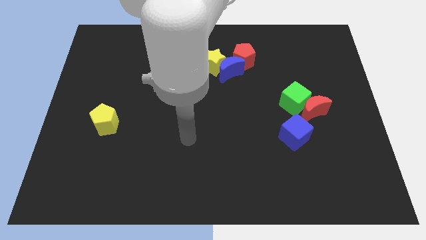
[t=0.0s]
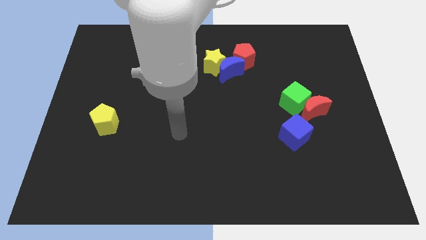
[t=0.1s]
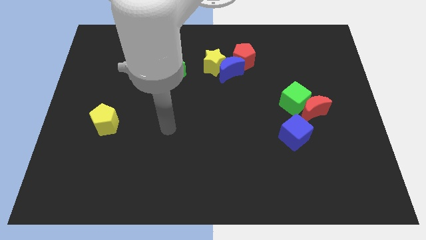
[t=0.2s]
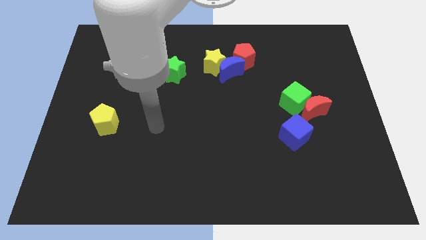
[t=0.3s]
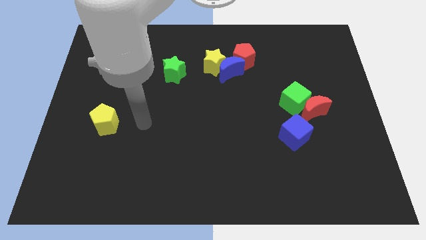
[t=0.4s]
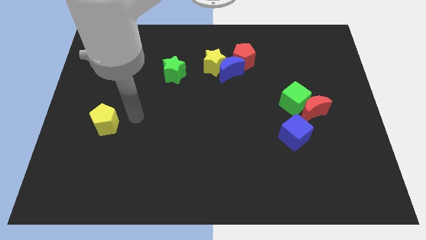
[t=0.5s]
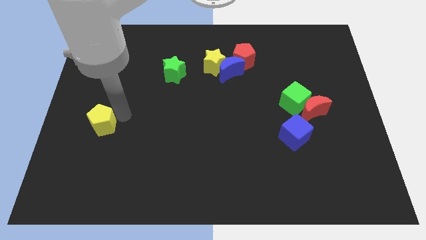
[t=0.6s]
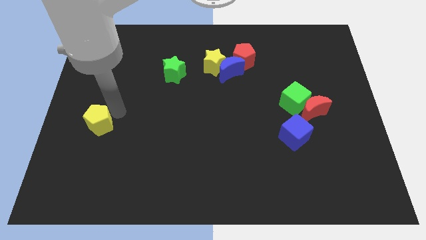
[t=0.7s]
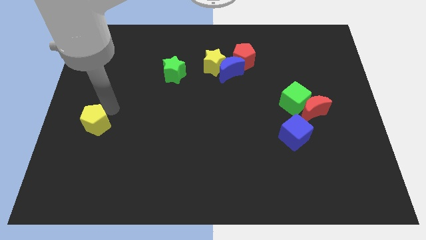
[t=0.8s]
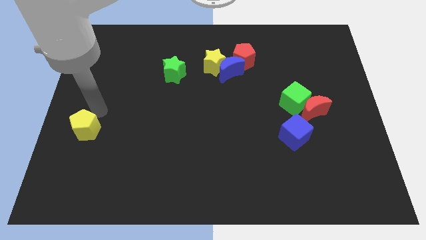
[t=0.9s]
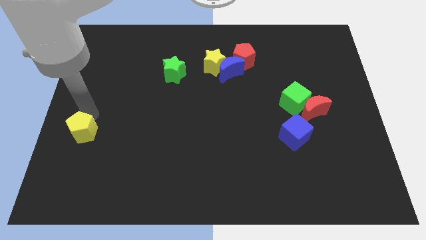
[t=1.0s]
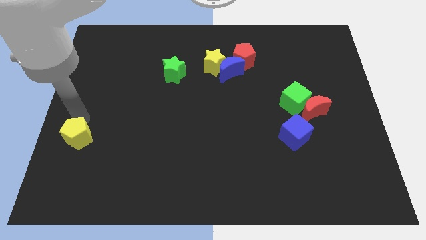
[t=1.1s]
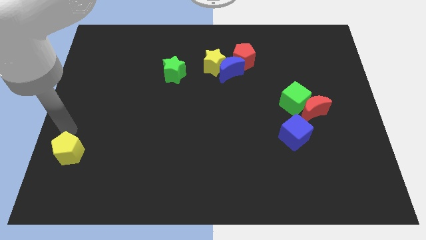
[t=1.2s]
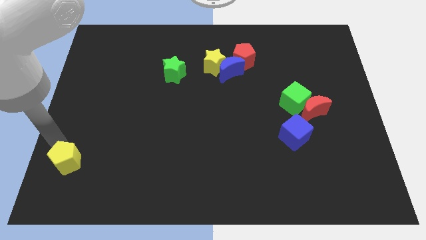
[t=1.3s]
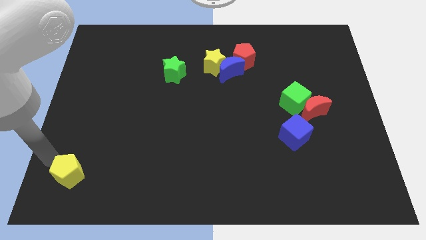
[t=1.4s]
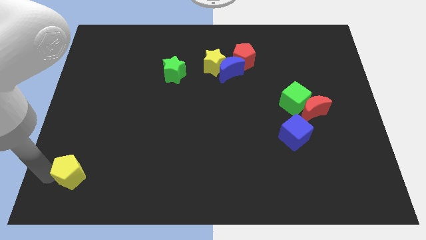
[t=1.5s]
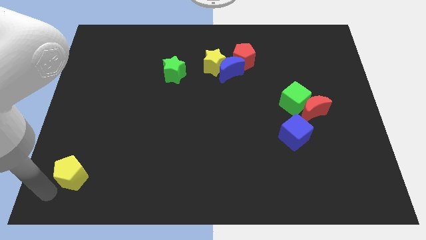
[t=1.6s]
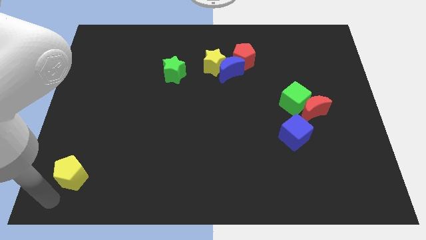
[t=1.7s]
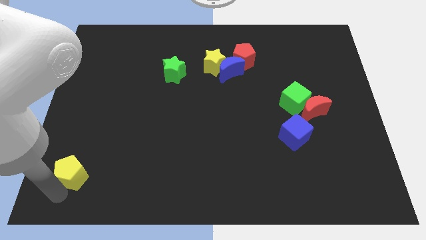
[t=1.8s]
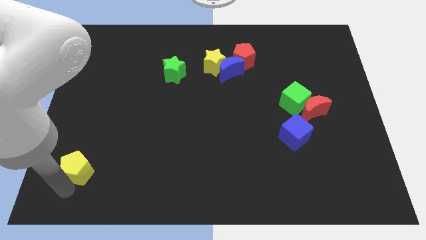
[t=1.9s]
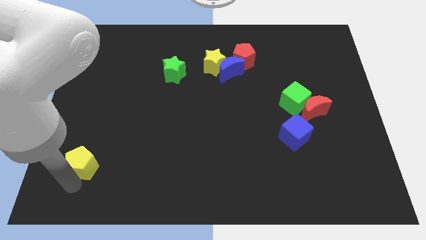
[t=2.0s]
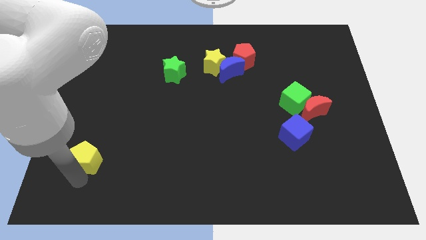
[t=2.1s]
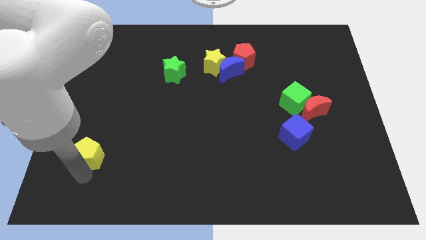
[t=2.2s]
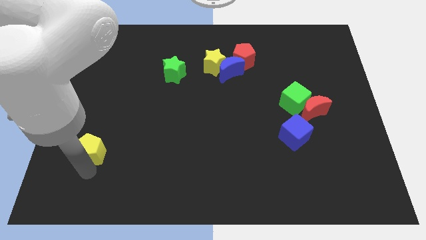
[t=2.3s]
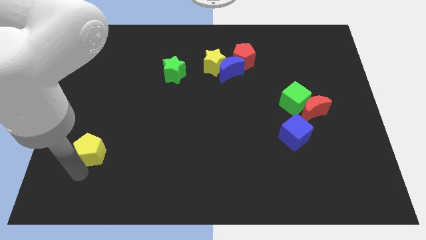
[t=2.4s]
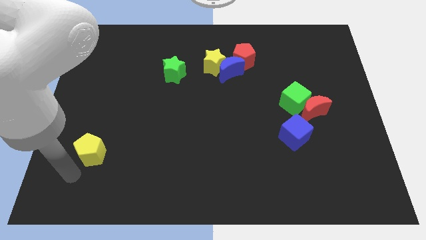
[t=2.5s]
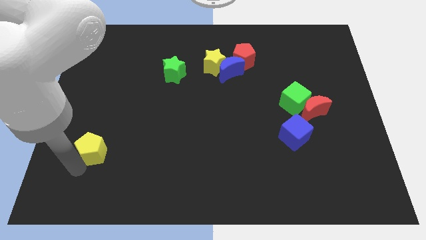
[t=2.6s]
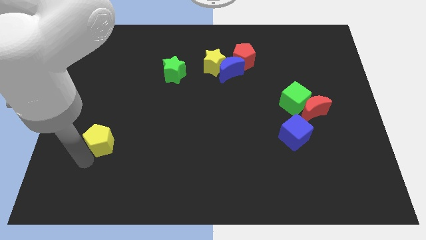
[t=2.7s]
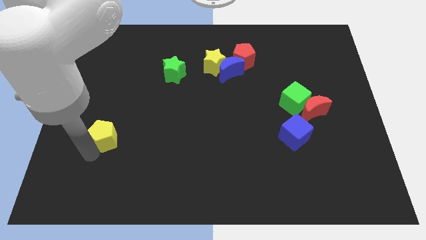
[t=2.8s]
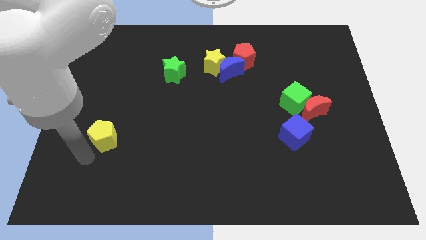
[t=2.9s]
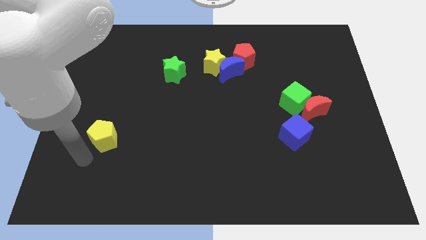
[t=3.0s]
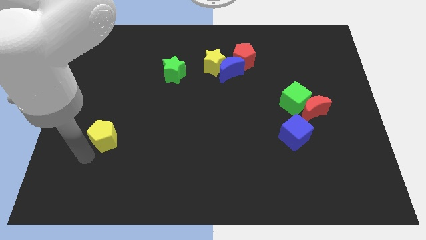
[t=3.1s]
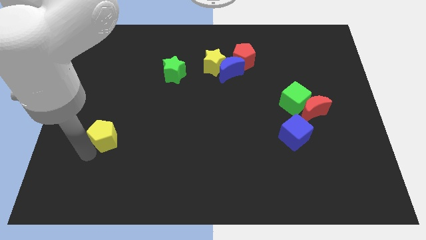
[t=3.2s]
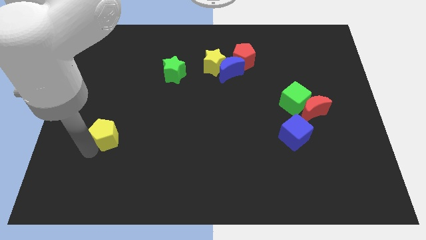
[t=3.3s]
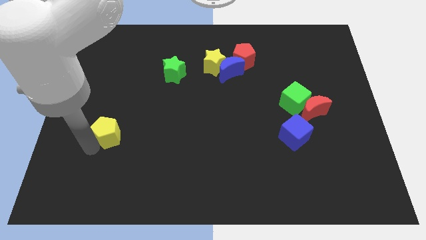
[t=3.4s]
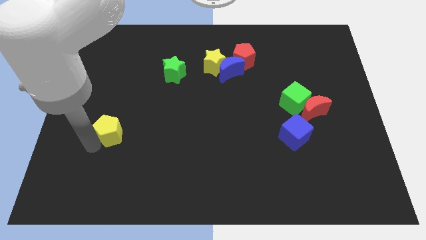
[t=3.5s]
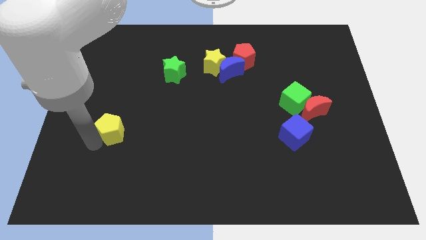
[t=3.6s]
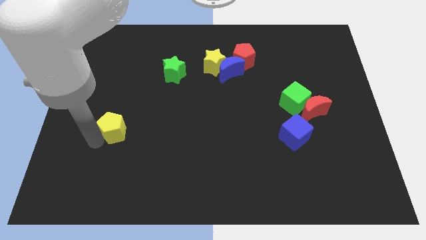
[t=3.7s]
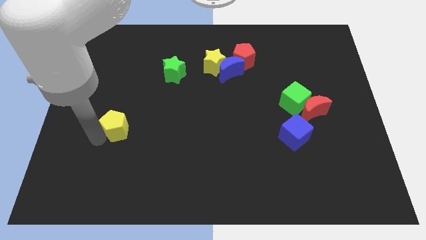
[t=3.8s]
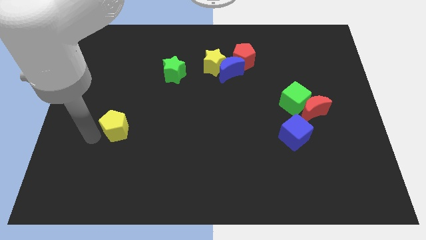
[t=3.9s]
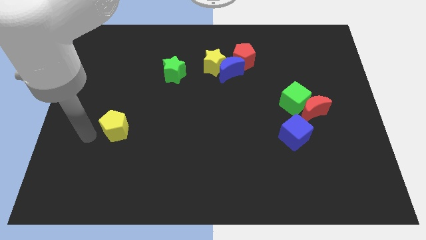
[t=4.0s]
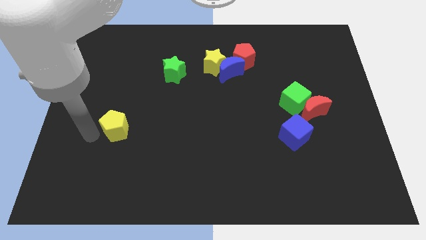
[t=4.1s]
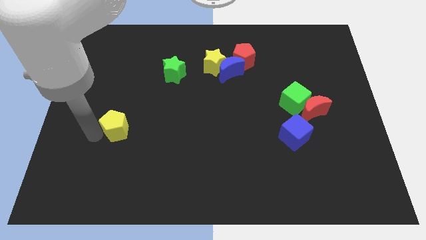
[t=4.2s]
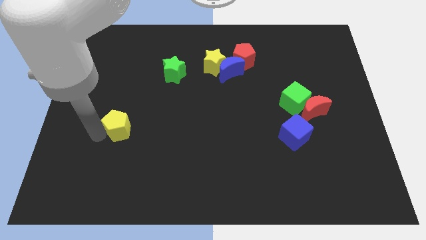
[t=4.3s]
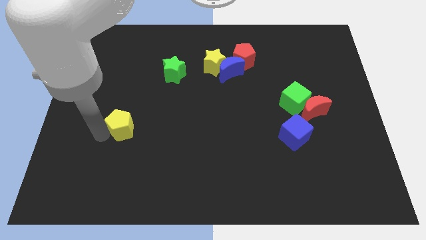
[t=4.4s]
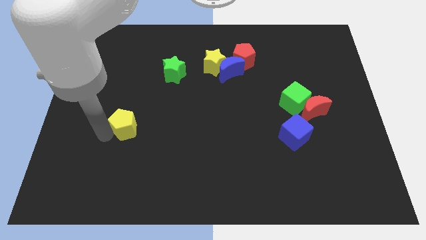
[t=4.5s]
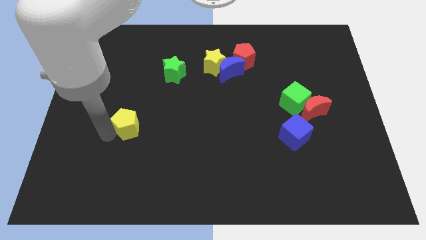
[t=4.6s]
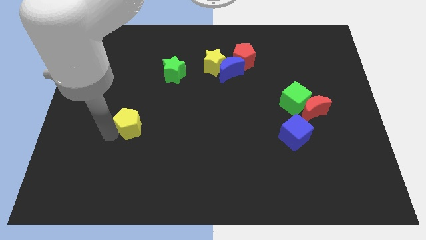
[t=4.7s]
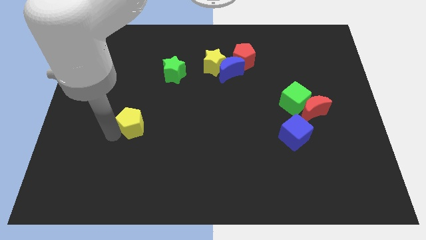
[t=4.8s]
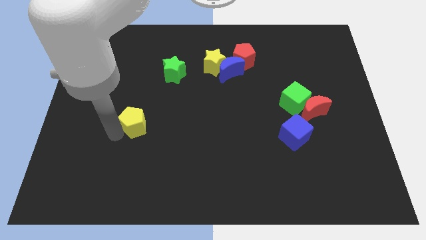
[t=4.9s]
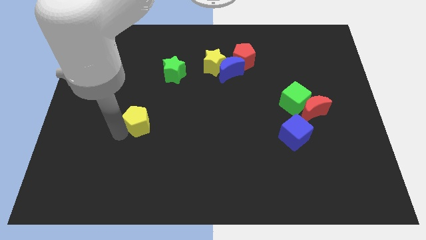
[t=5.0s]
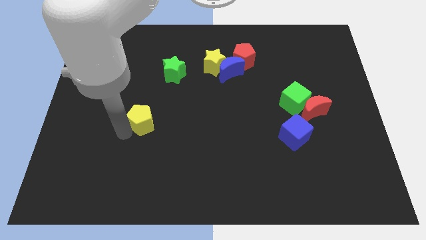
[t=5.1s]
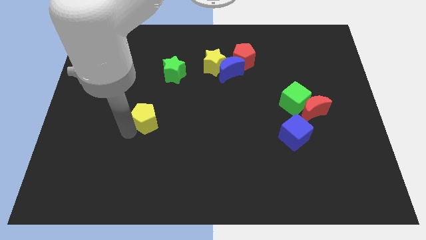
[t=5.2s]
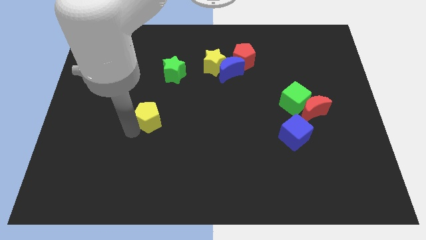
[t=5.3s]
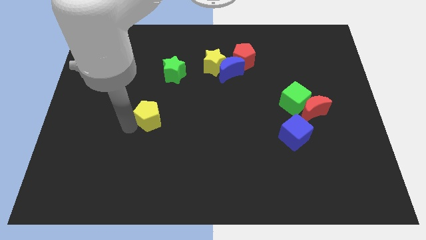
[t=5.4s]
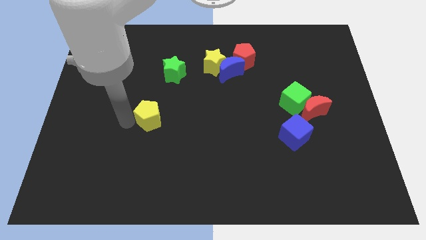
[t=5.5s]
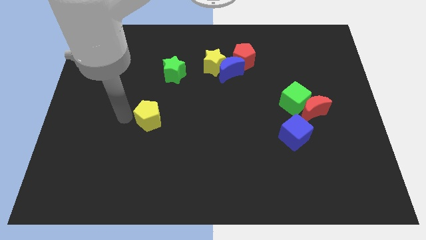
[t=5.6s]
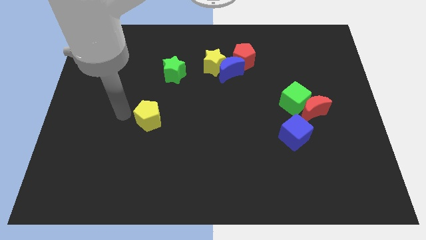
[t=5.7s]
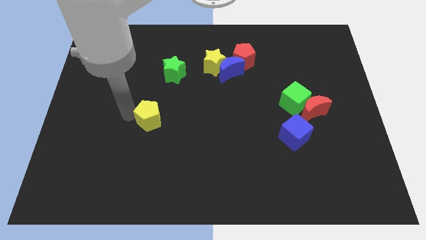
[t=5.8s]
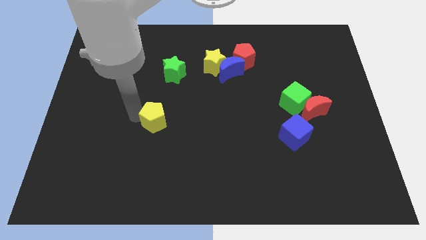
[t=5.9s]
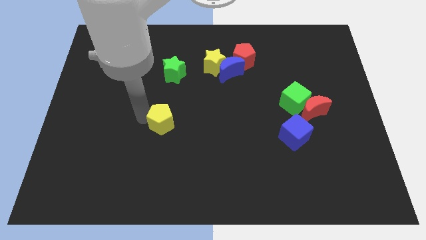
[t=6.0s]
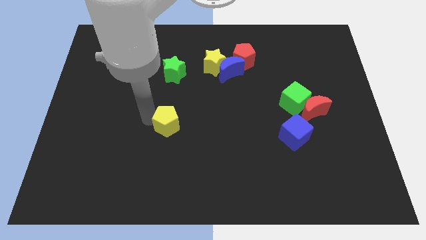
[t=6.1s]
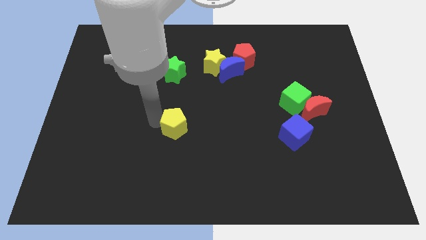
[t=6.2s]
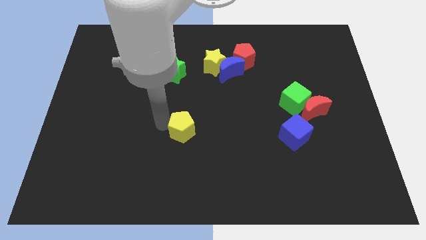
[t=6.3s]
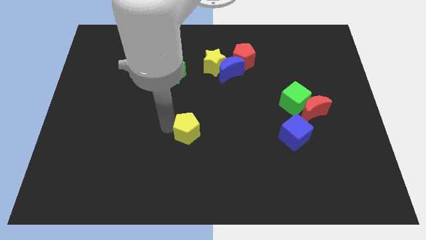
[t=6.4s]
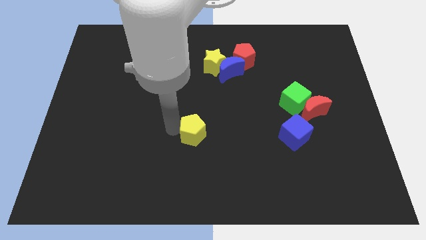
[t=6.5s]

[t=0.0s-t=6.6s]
push the yellow pentagon right

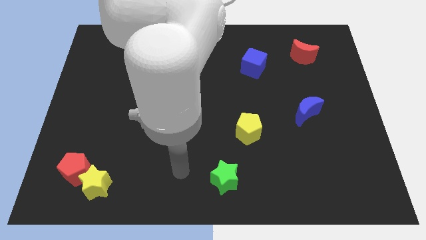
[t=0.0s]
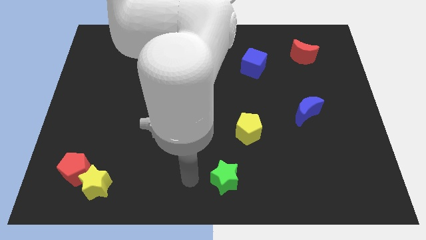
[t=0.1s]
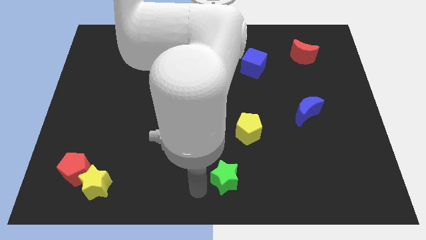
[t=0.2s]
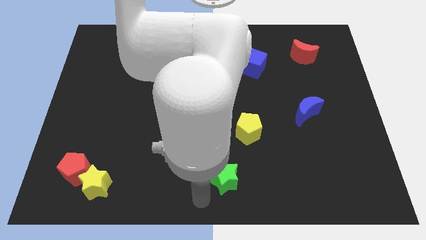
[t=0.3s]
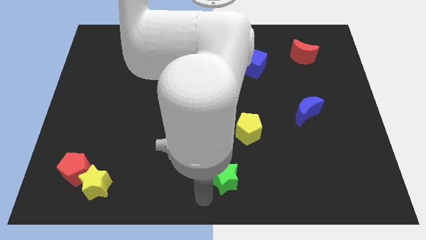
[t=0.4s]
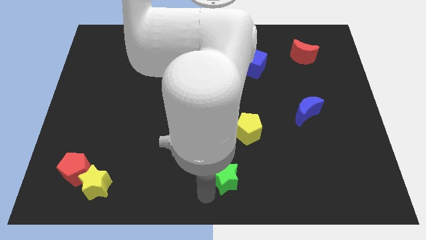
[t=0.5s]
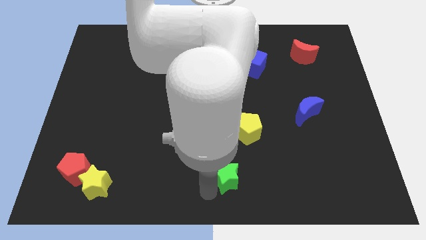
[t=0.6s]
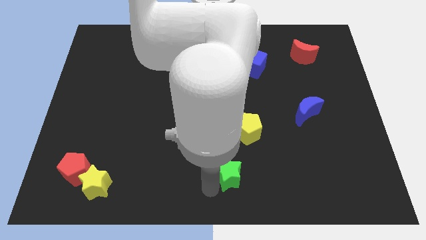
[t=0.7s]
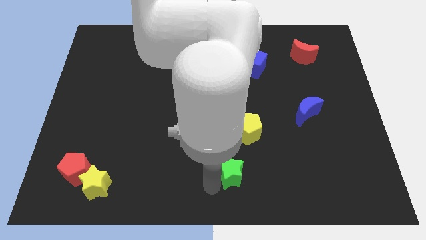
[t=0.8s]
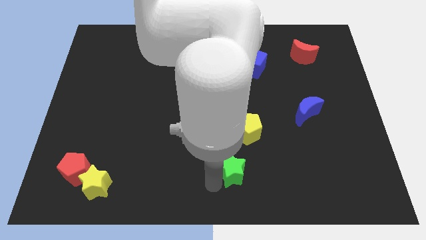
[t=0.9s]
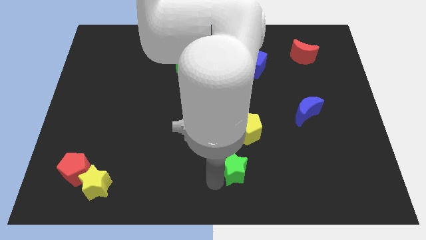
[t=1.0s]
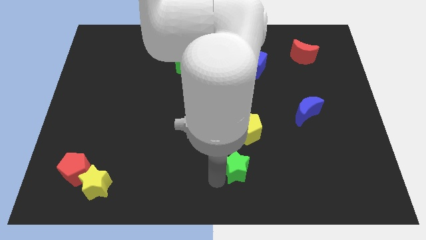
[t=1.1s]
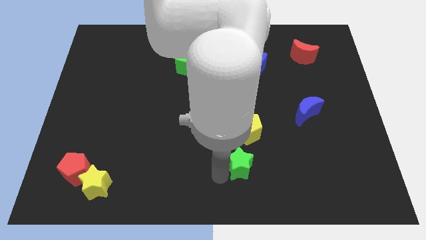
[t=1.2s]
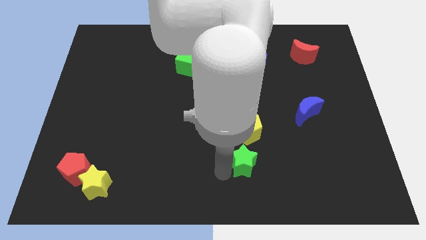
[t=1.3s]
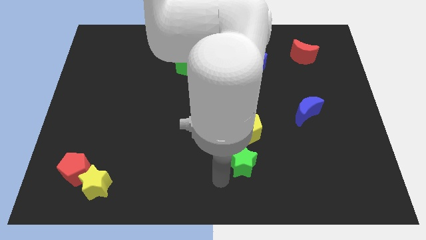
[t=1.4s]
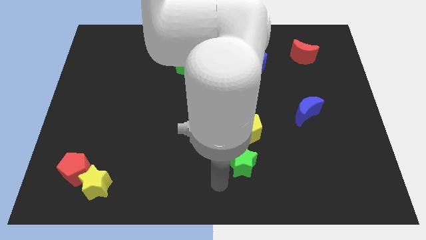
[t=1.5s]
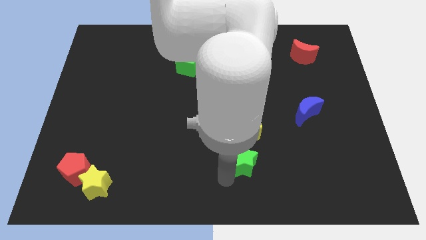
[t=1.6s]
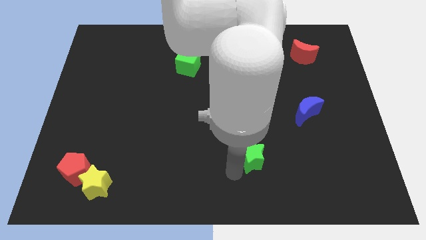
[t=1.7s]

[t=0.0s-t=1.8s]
slightly push the green star diagonally upwards and to the right

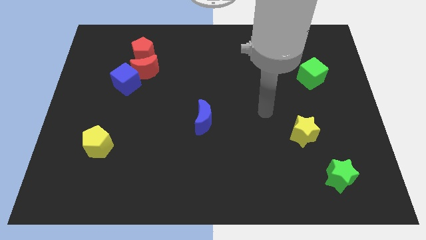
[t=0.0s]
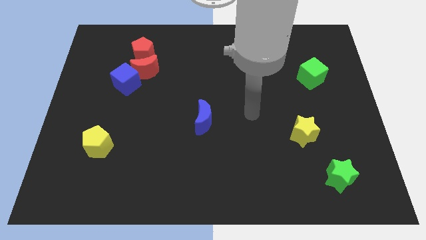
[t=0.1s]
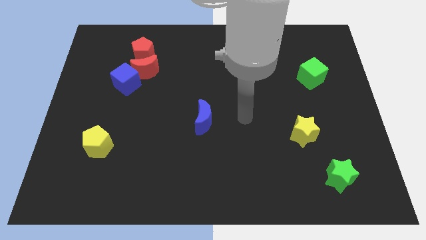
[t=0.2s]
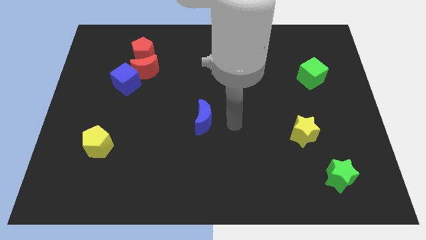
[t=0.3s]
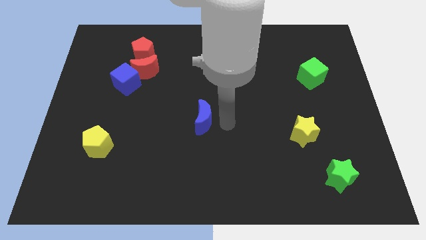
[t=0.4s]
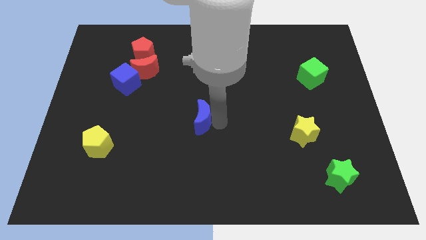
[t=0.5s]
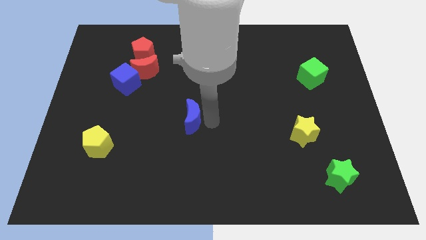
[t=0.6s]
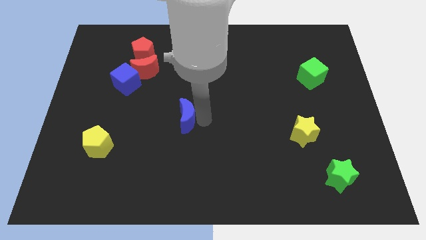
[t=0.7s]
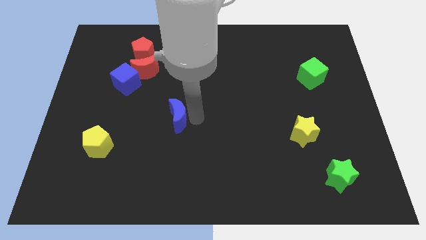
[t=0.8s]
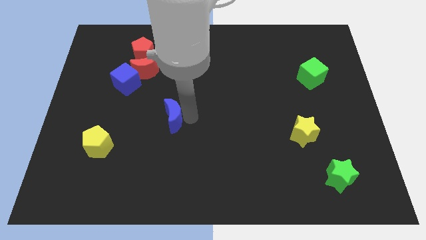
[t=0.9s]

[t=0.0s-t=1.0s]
move the blue moon to the left a bit
